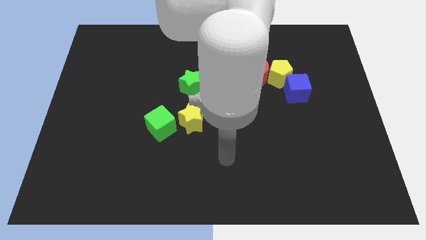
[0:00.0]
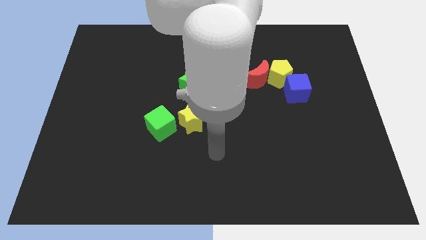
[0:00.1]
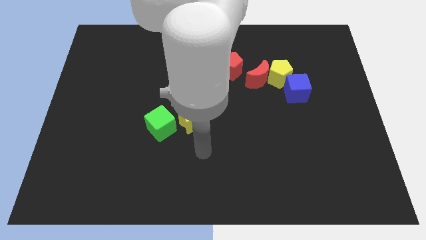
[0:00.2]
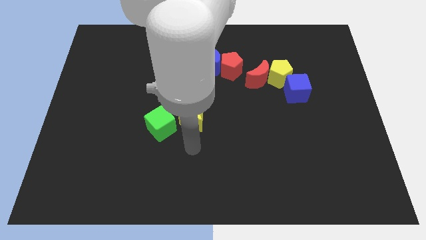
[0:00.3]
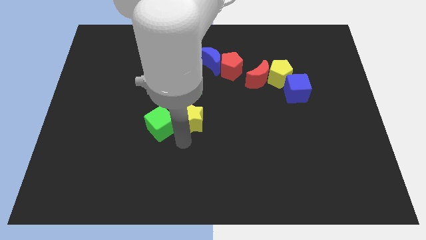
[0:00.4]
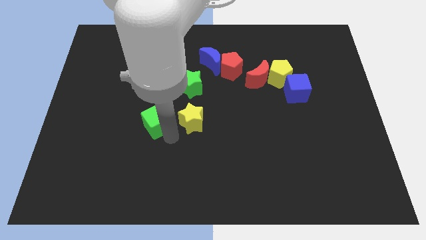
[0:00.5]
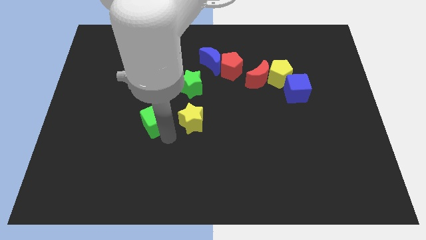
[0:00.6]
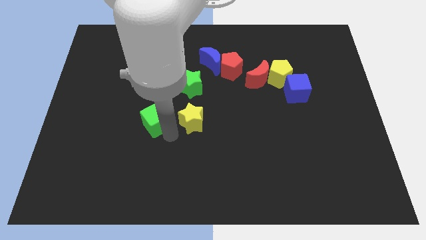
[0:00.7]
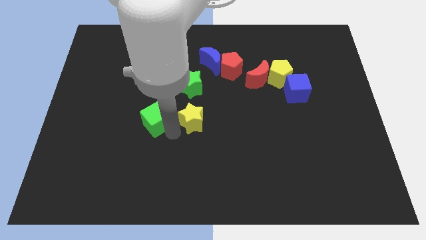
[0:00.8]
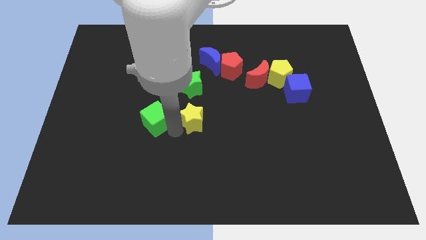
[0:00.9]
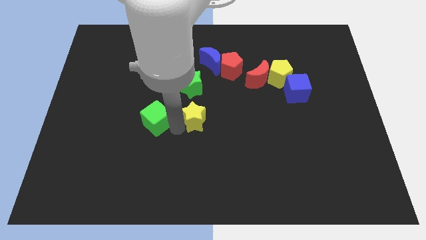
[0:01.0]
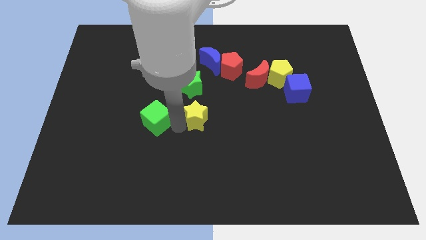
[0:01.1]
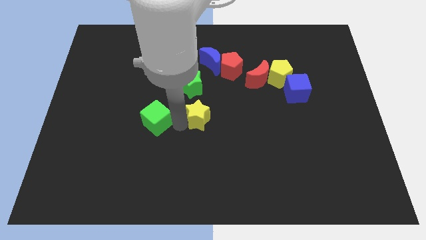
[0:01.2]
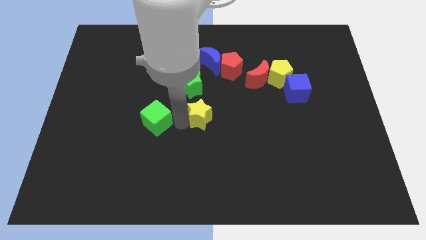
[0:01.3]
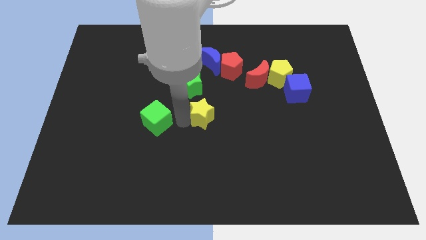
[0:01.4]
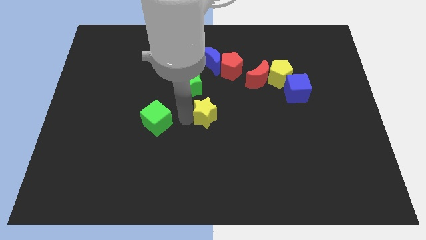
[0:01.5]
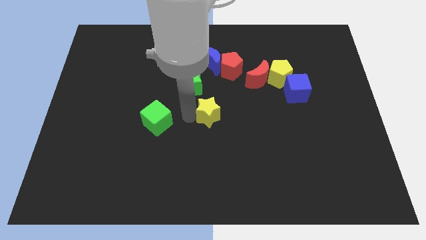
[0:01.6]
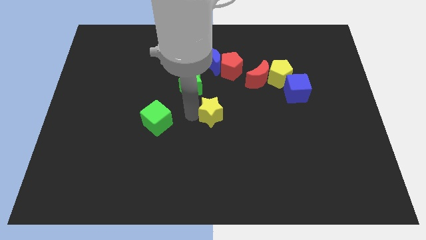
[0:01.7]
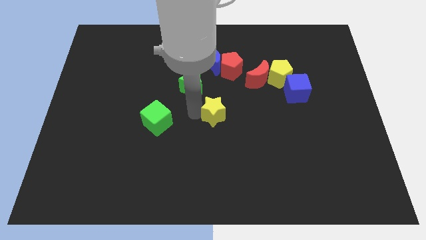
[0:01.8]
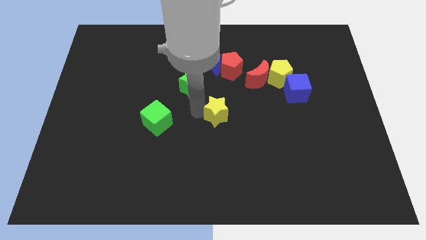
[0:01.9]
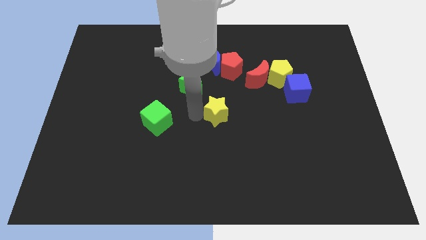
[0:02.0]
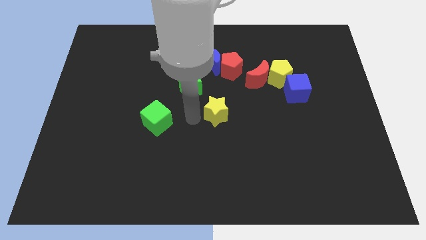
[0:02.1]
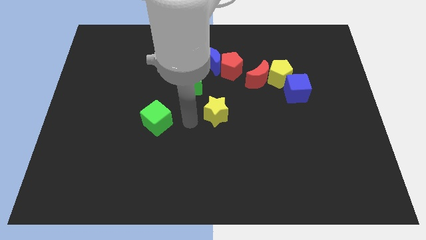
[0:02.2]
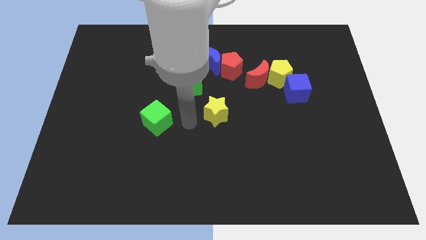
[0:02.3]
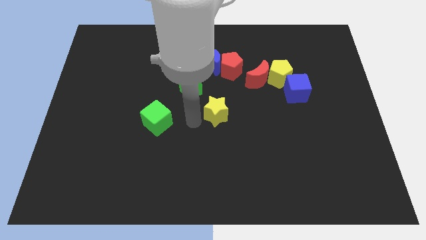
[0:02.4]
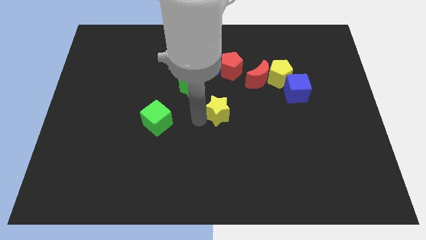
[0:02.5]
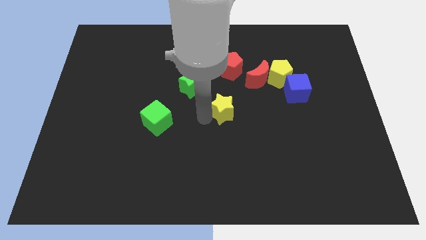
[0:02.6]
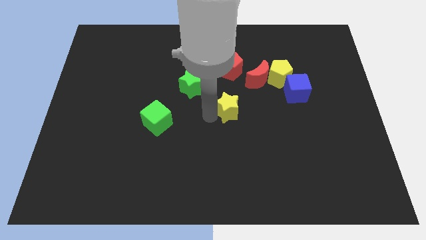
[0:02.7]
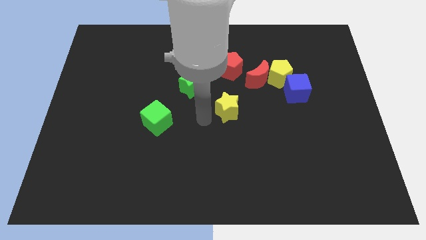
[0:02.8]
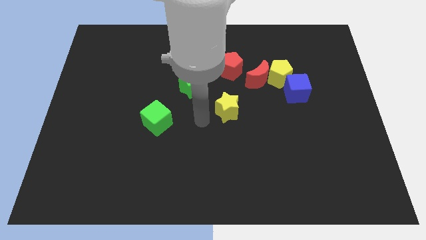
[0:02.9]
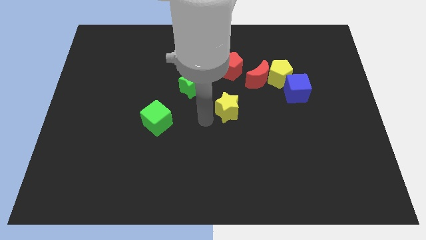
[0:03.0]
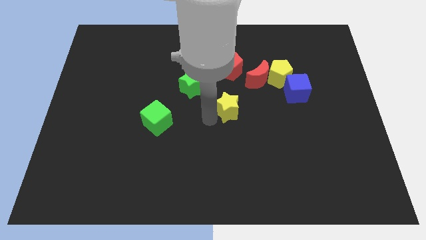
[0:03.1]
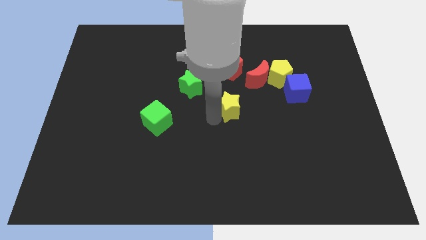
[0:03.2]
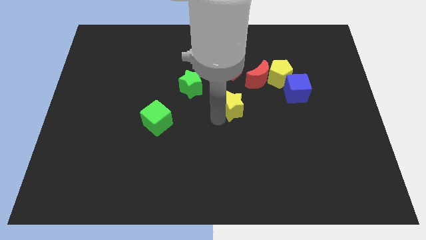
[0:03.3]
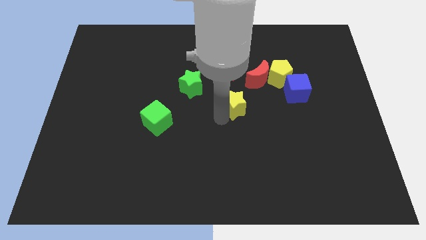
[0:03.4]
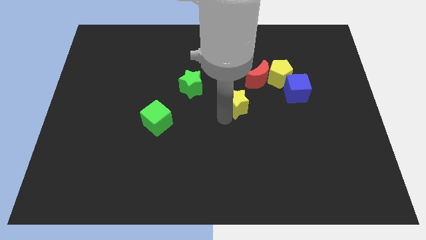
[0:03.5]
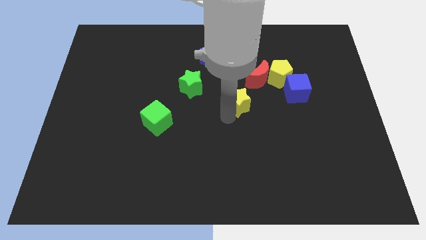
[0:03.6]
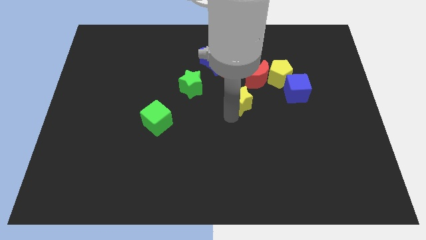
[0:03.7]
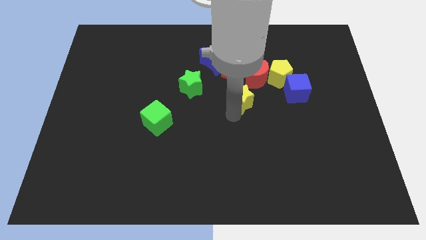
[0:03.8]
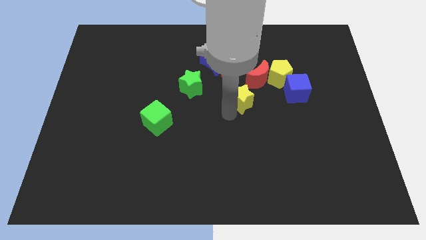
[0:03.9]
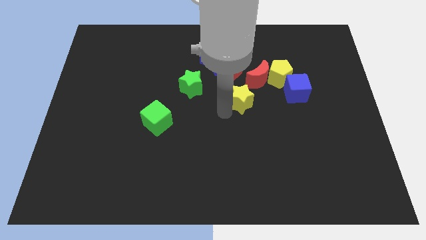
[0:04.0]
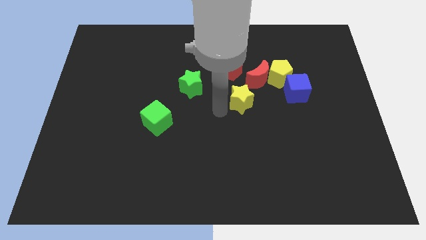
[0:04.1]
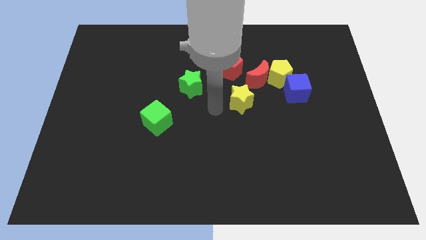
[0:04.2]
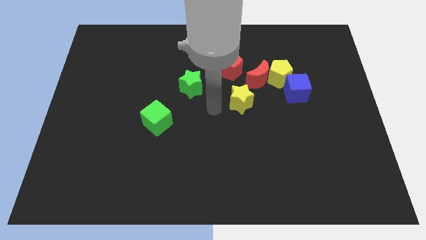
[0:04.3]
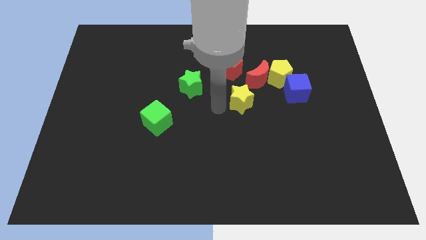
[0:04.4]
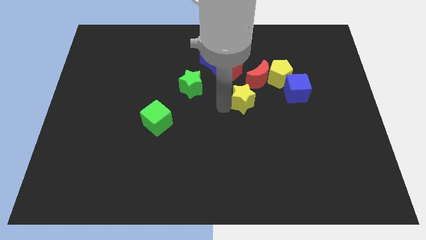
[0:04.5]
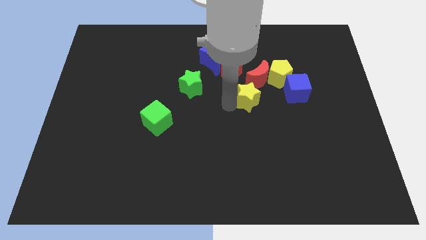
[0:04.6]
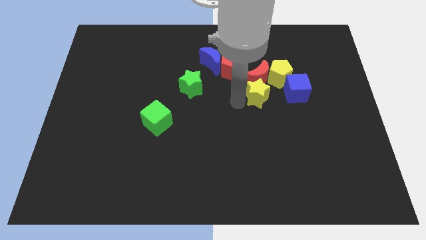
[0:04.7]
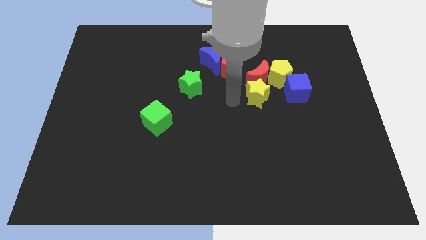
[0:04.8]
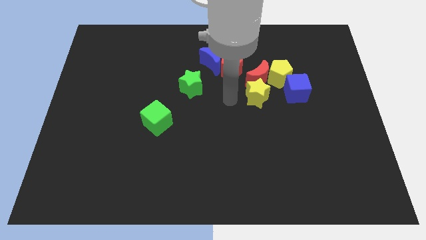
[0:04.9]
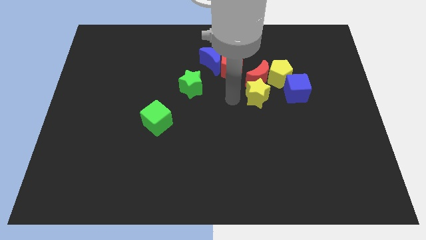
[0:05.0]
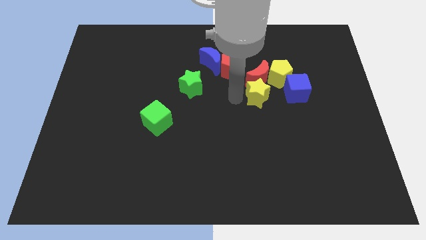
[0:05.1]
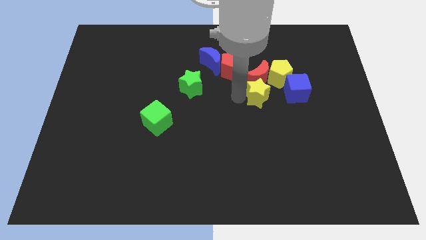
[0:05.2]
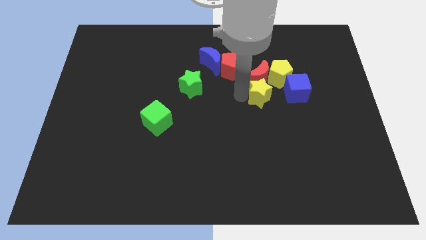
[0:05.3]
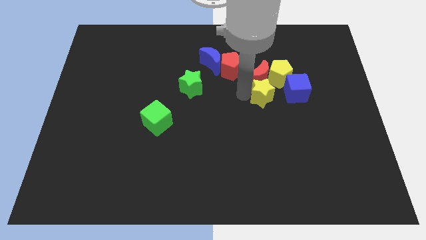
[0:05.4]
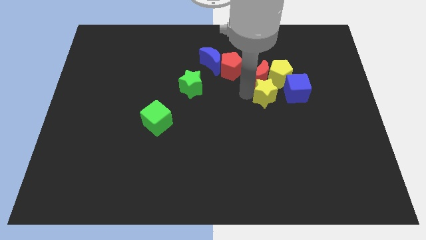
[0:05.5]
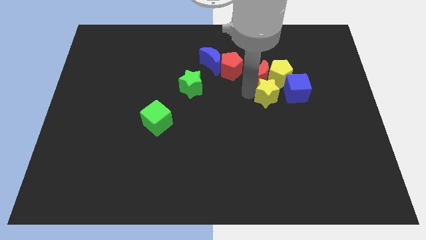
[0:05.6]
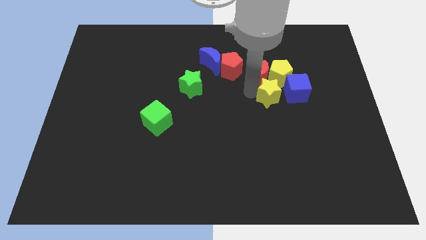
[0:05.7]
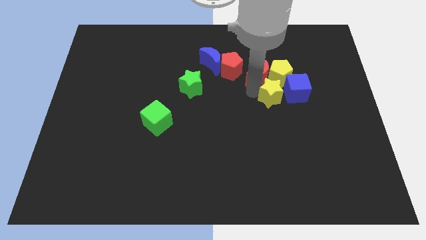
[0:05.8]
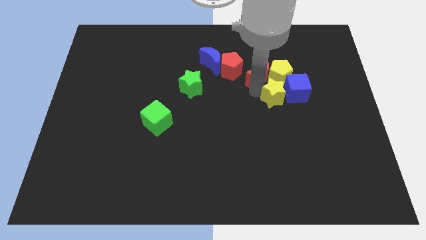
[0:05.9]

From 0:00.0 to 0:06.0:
move the yellow star next to the blue cube
